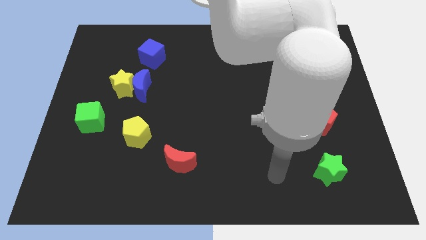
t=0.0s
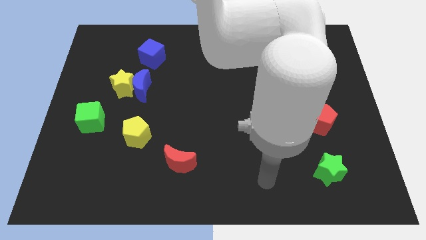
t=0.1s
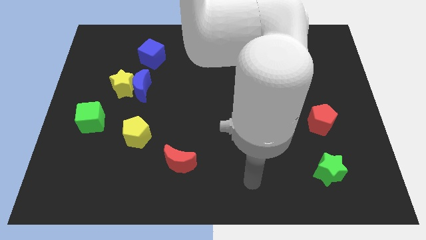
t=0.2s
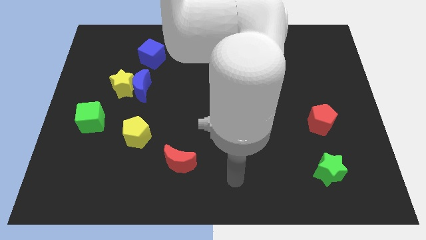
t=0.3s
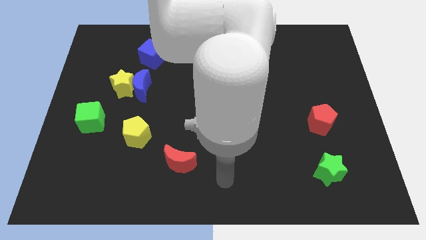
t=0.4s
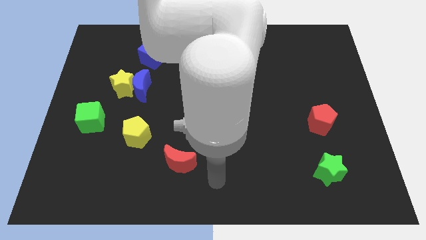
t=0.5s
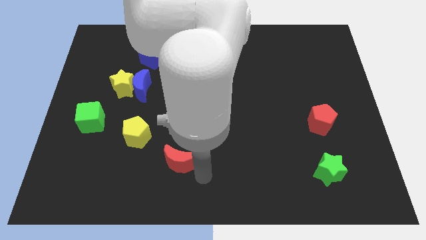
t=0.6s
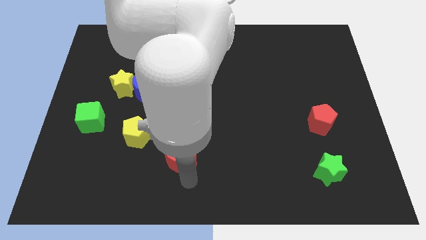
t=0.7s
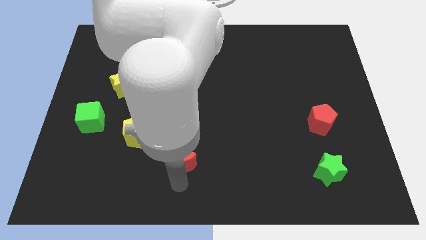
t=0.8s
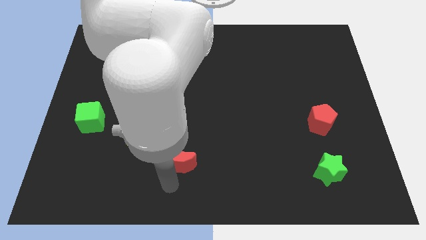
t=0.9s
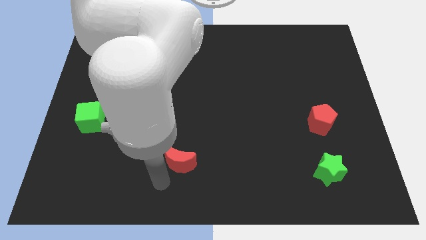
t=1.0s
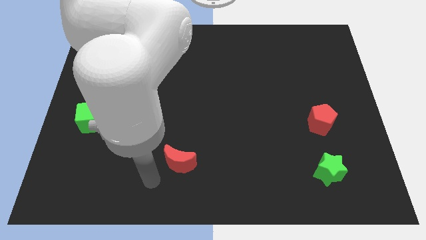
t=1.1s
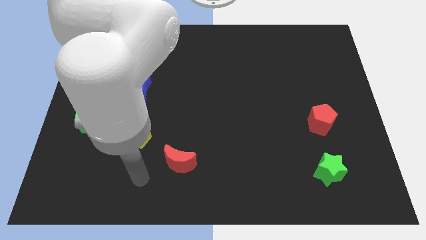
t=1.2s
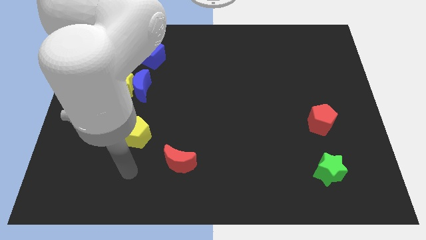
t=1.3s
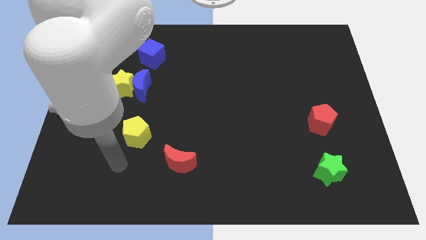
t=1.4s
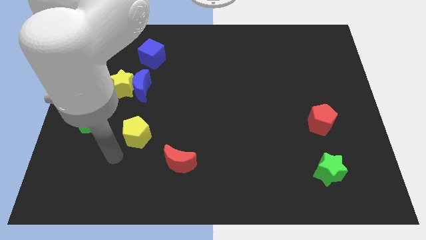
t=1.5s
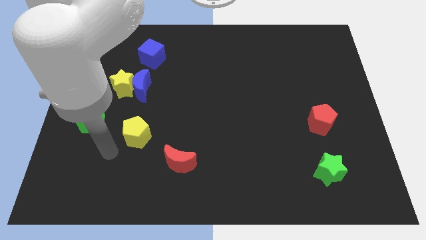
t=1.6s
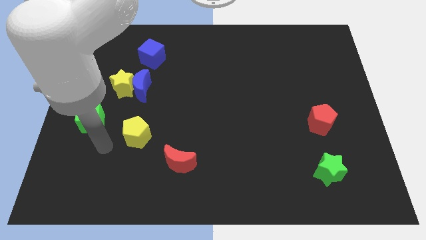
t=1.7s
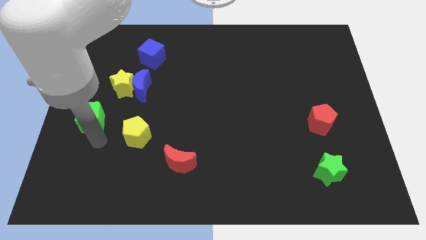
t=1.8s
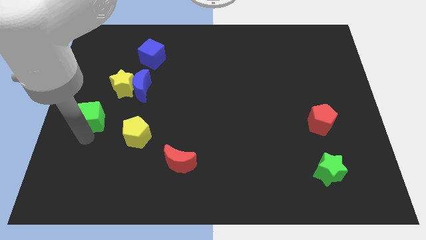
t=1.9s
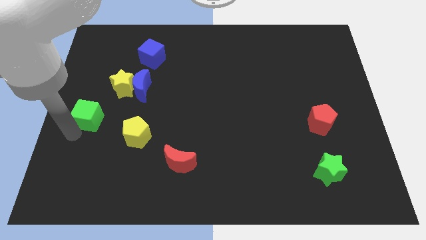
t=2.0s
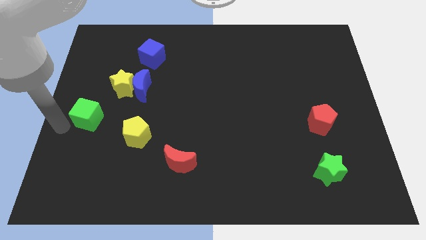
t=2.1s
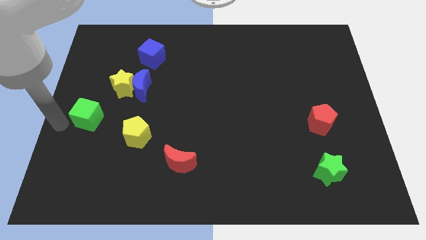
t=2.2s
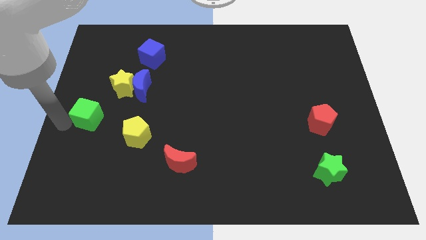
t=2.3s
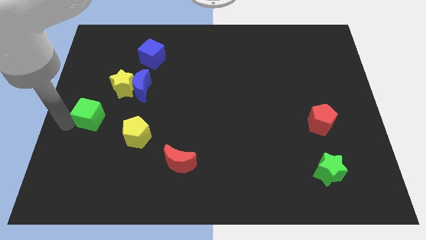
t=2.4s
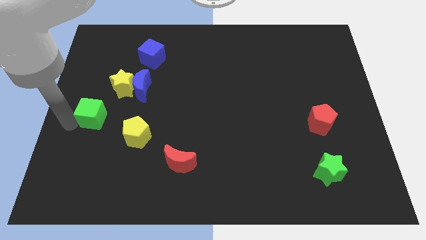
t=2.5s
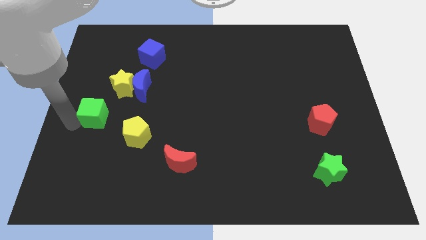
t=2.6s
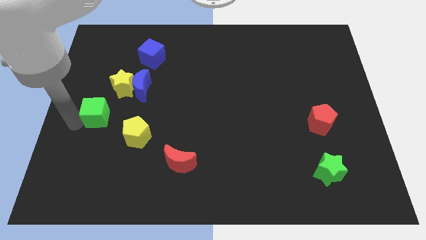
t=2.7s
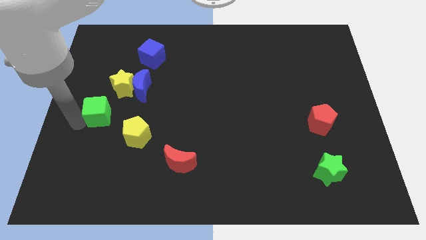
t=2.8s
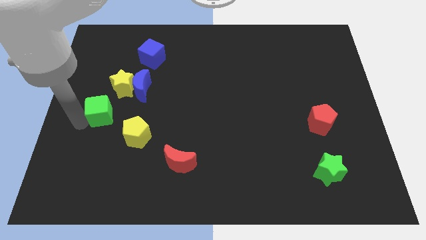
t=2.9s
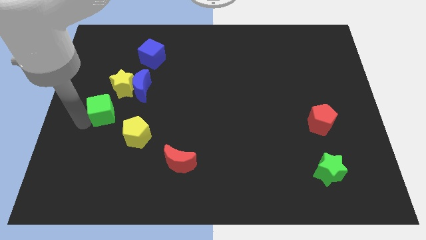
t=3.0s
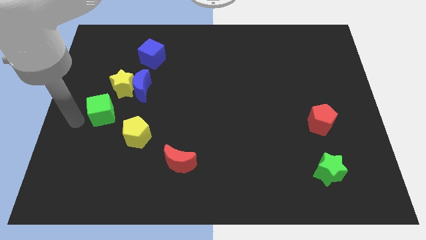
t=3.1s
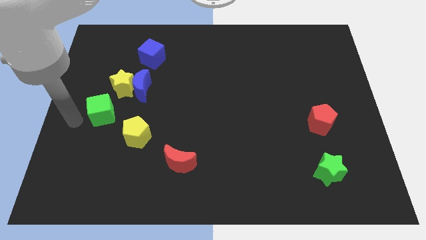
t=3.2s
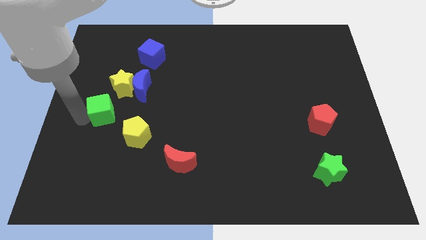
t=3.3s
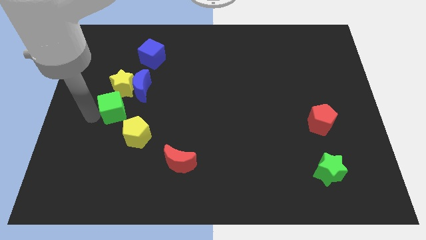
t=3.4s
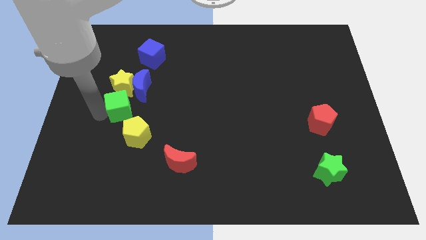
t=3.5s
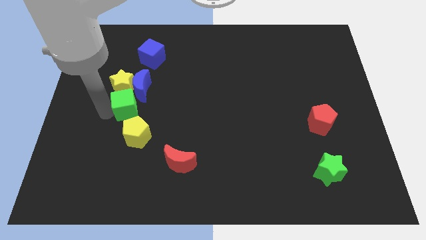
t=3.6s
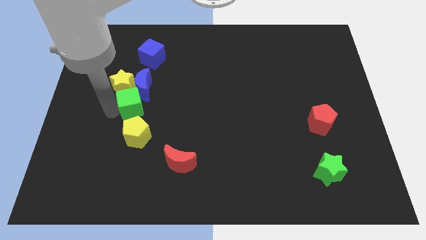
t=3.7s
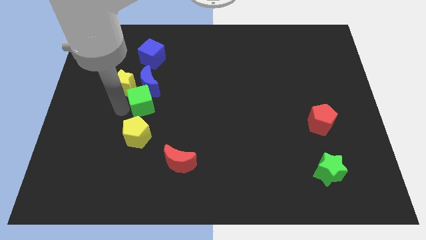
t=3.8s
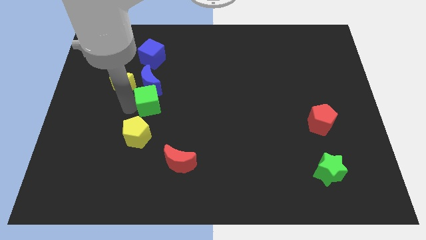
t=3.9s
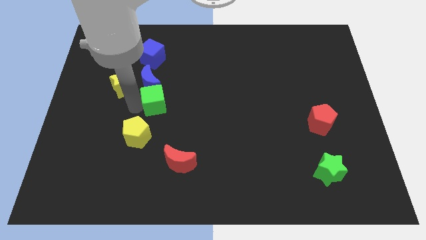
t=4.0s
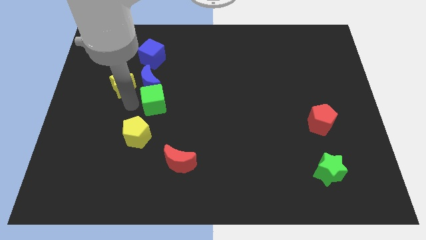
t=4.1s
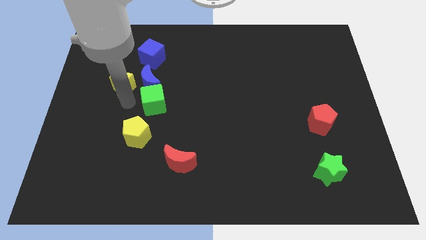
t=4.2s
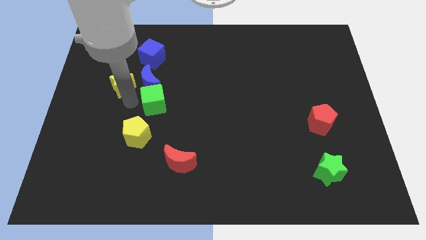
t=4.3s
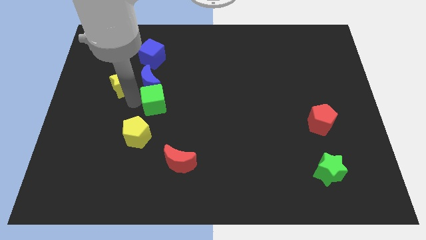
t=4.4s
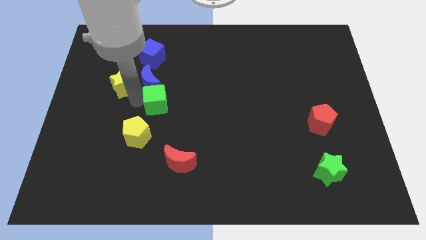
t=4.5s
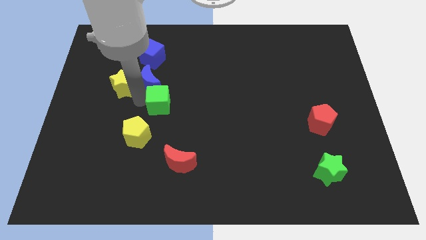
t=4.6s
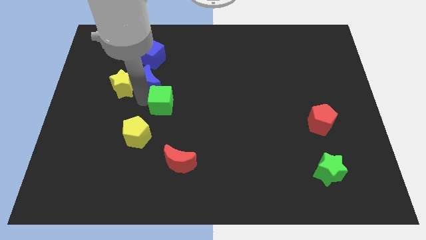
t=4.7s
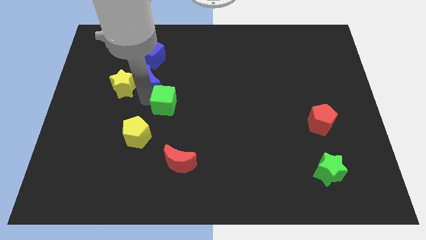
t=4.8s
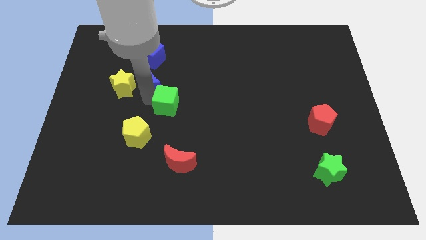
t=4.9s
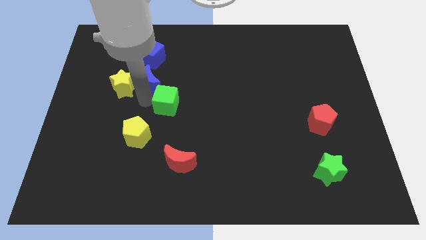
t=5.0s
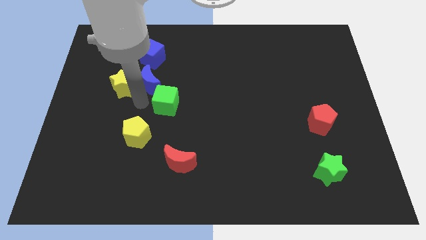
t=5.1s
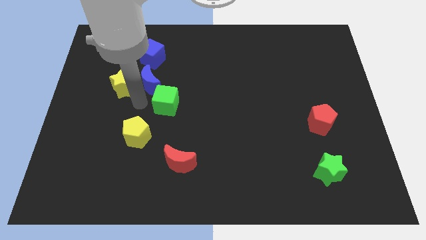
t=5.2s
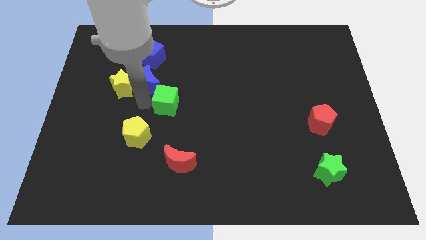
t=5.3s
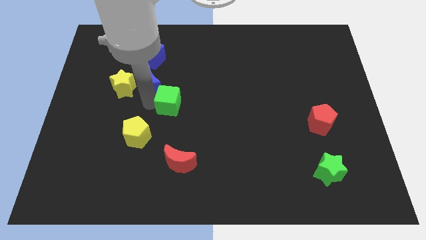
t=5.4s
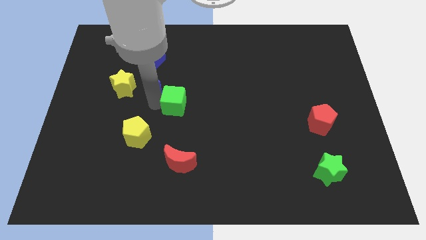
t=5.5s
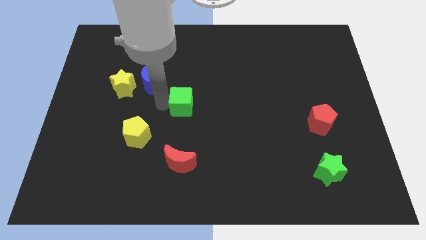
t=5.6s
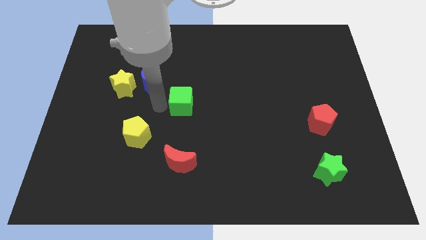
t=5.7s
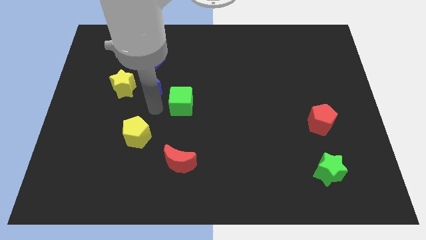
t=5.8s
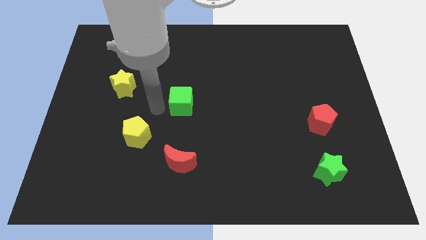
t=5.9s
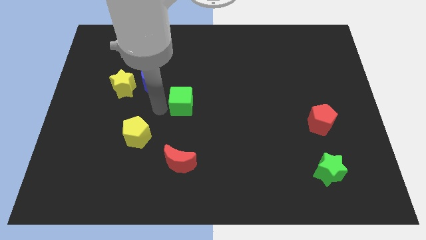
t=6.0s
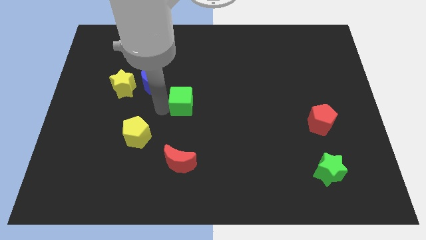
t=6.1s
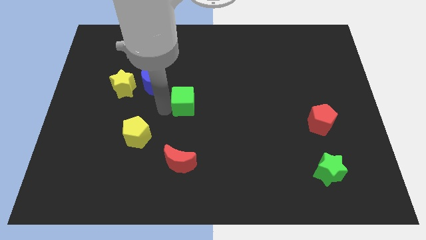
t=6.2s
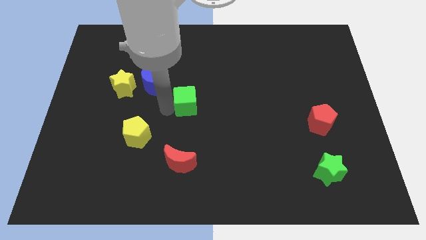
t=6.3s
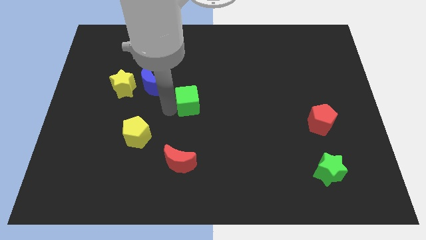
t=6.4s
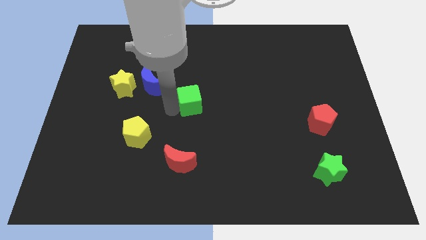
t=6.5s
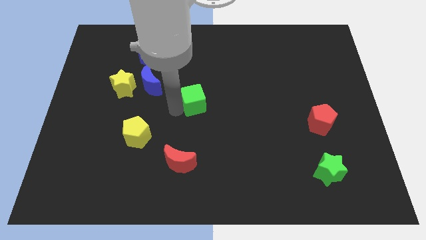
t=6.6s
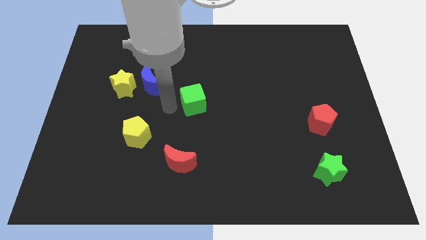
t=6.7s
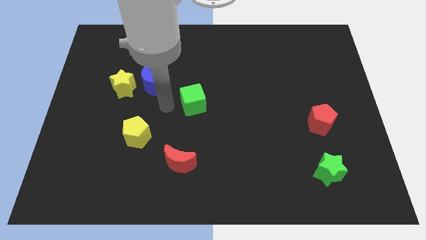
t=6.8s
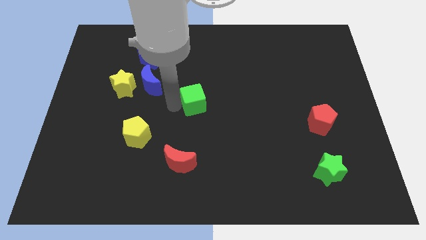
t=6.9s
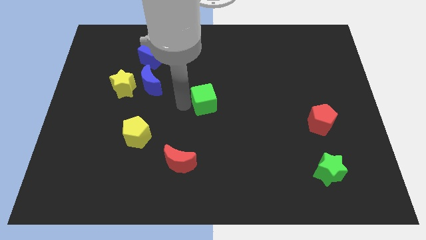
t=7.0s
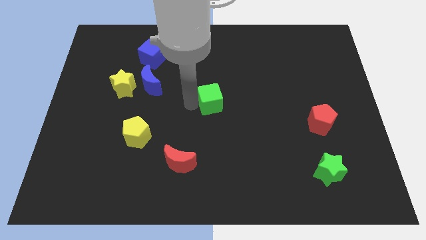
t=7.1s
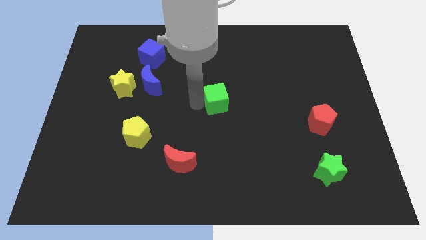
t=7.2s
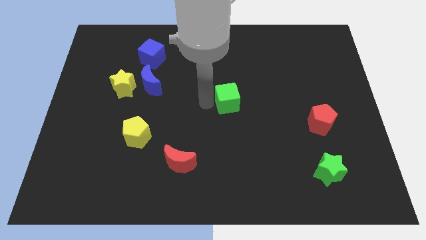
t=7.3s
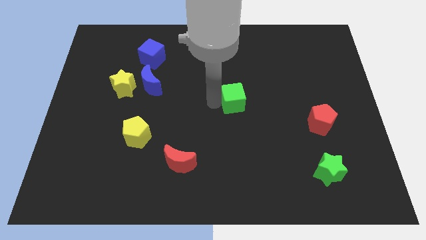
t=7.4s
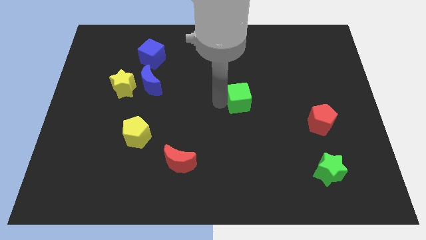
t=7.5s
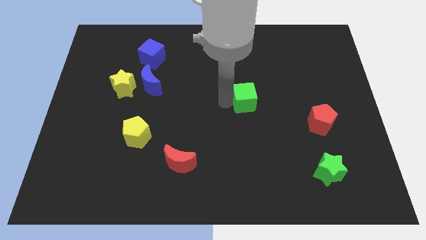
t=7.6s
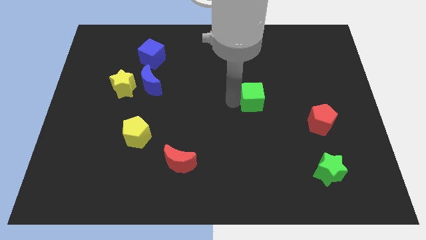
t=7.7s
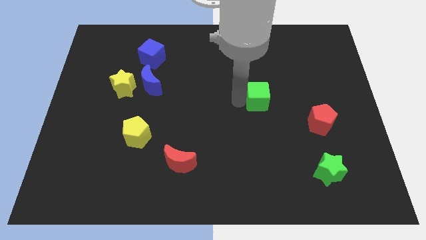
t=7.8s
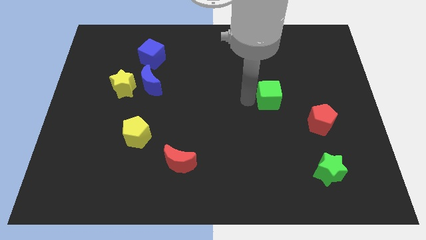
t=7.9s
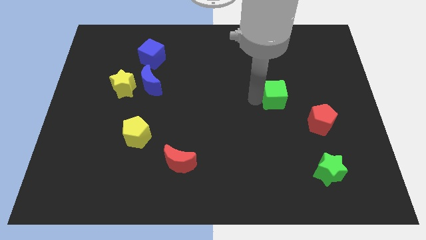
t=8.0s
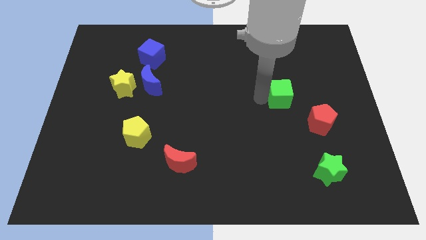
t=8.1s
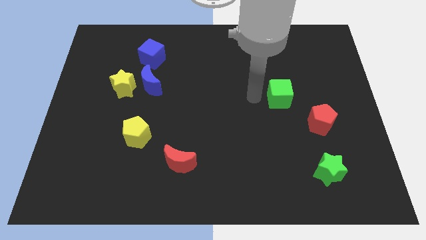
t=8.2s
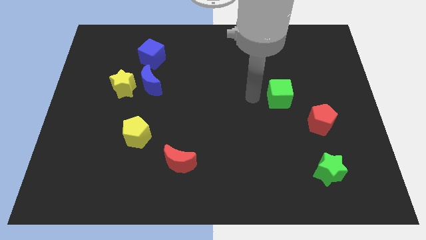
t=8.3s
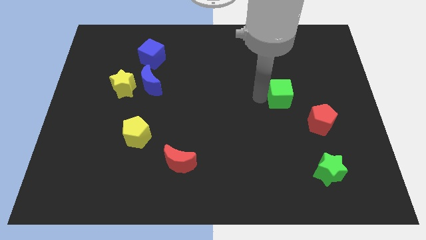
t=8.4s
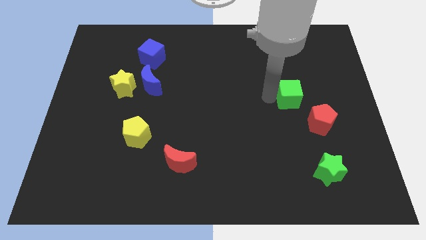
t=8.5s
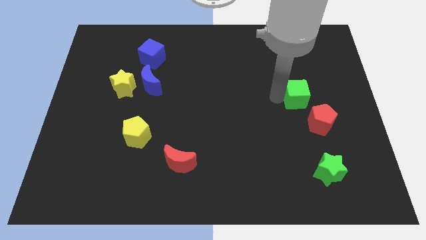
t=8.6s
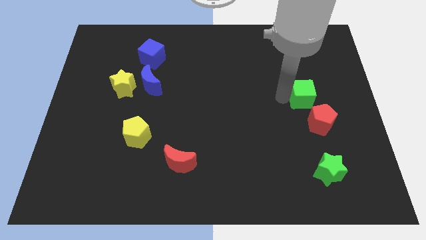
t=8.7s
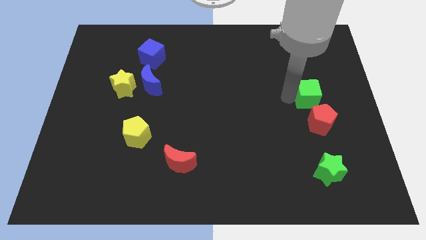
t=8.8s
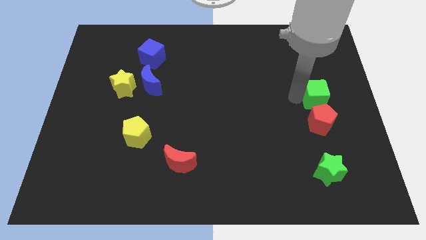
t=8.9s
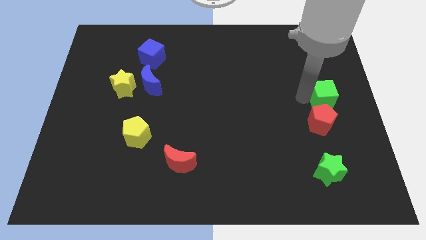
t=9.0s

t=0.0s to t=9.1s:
slide the green cube to the right side of the board
